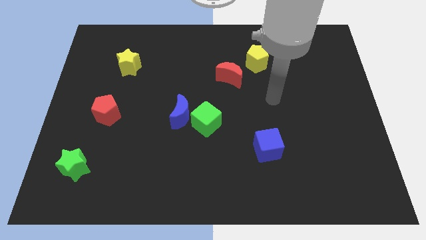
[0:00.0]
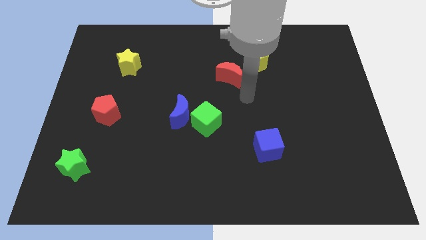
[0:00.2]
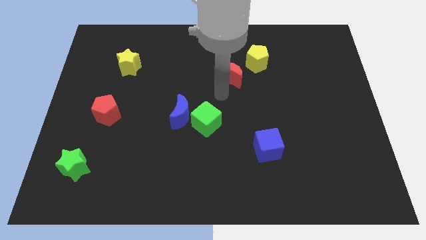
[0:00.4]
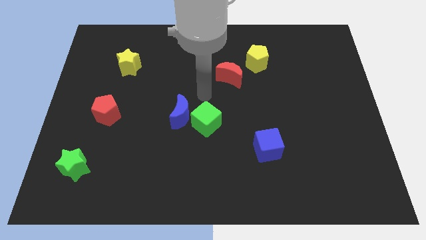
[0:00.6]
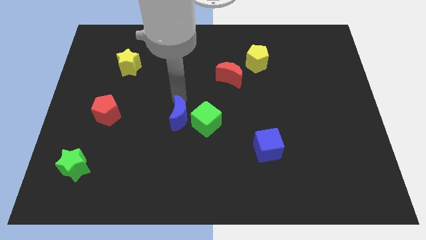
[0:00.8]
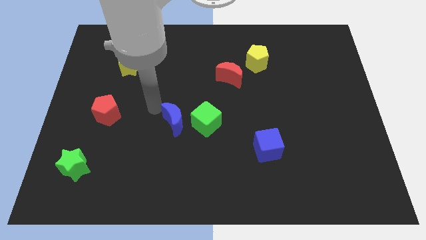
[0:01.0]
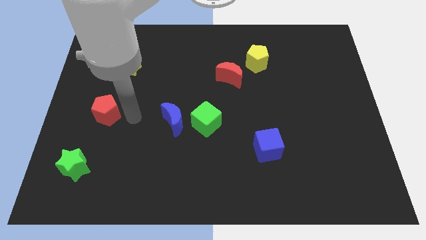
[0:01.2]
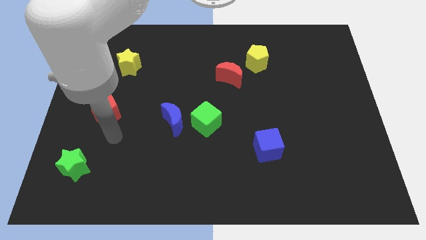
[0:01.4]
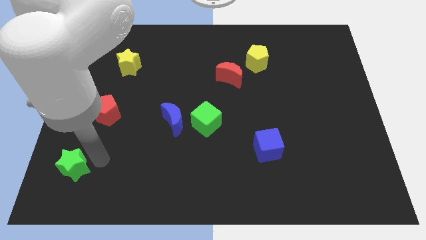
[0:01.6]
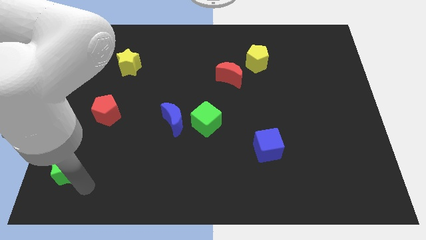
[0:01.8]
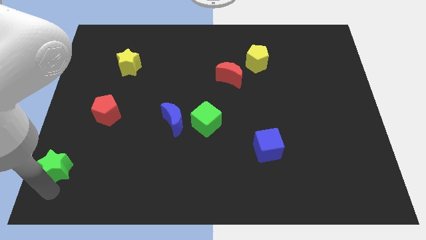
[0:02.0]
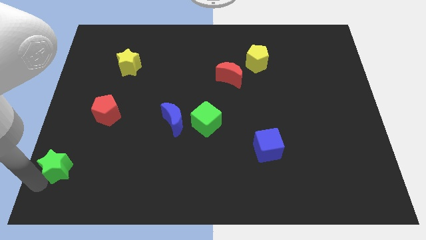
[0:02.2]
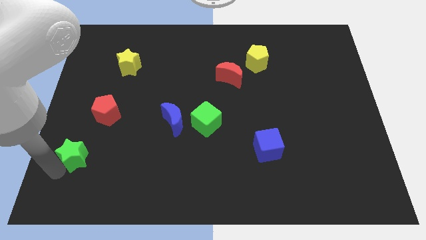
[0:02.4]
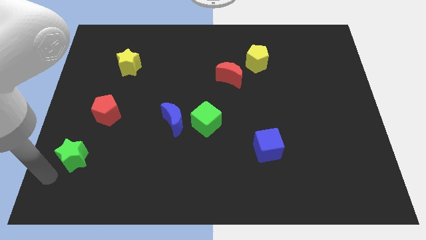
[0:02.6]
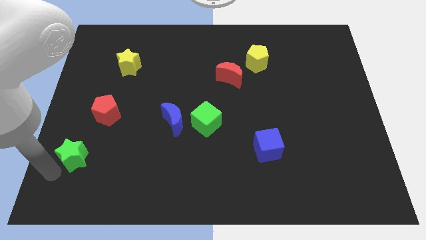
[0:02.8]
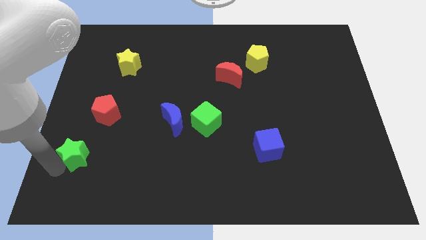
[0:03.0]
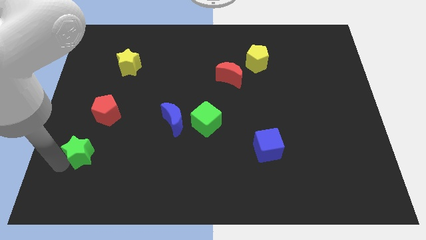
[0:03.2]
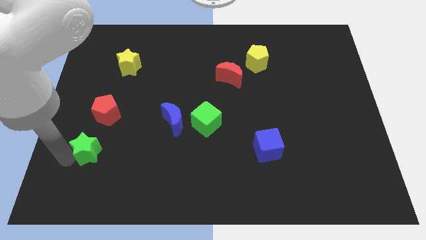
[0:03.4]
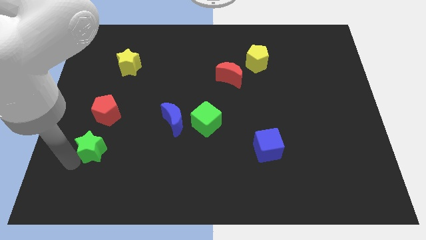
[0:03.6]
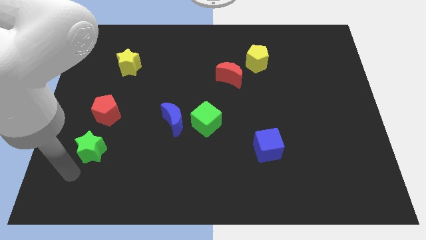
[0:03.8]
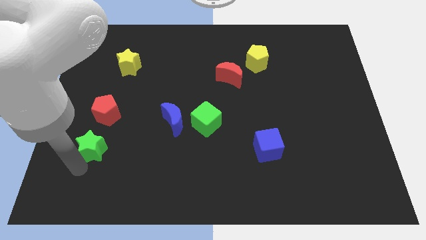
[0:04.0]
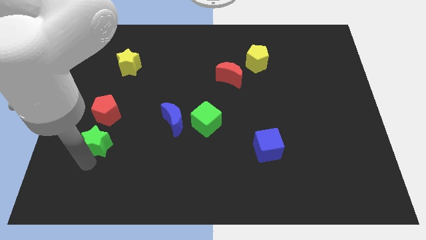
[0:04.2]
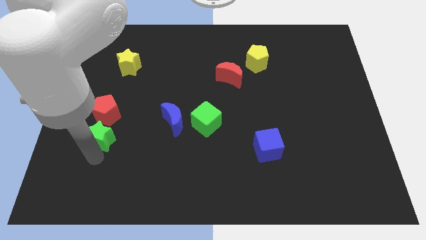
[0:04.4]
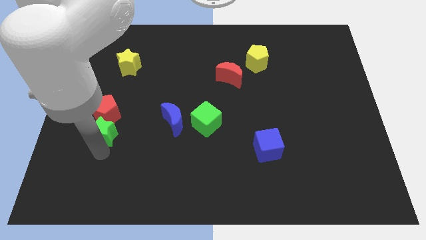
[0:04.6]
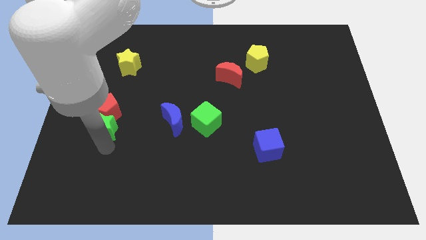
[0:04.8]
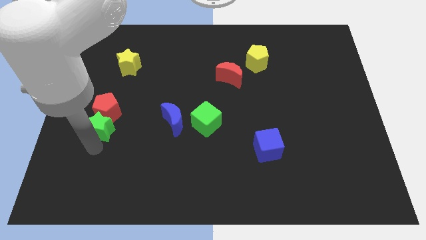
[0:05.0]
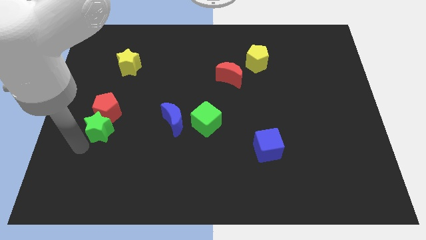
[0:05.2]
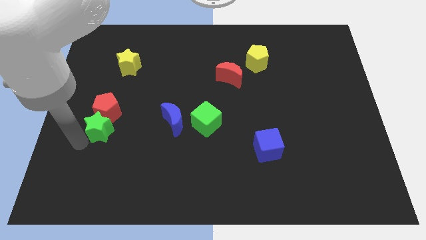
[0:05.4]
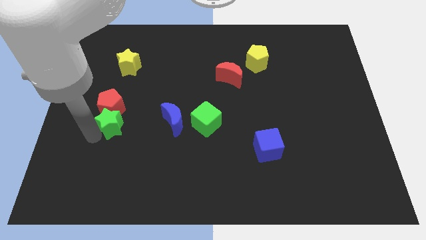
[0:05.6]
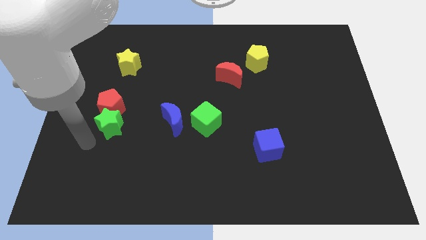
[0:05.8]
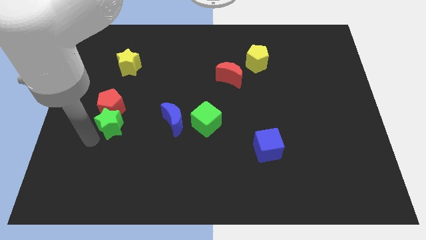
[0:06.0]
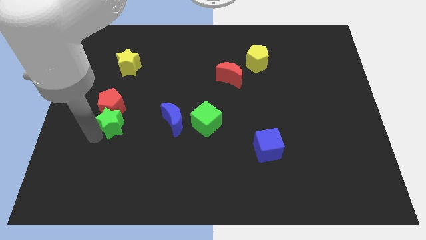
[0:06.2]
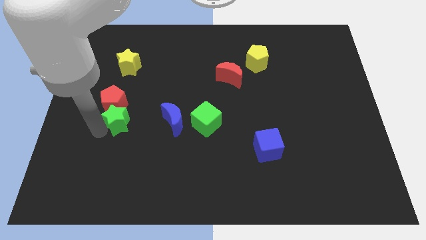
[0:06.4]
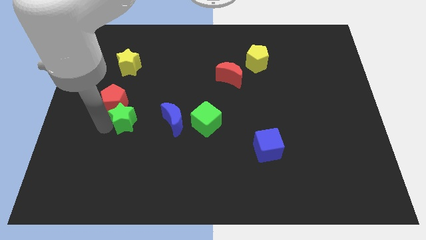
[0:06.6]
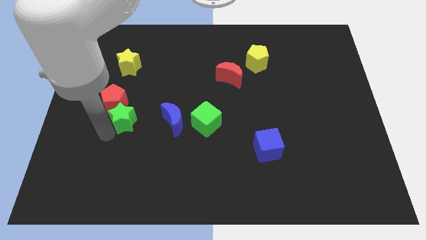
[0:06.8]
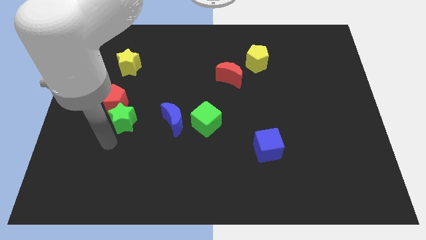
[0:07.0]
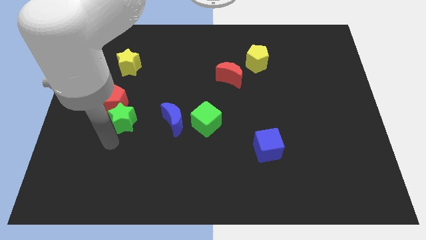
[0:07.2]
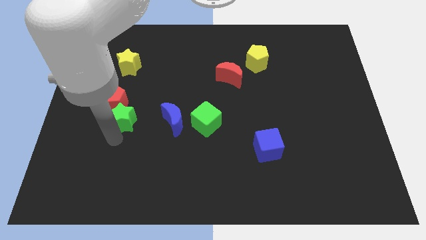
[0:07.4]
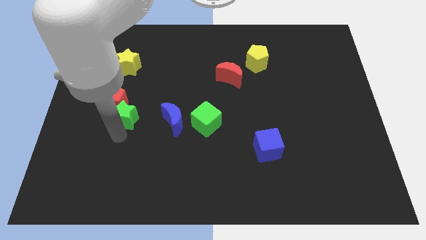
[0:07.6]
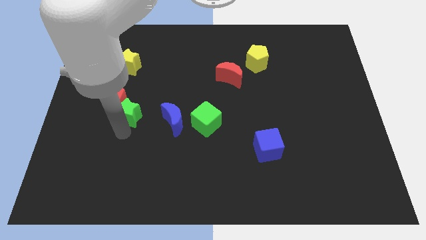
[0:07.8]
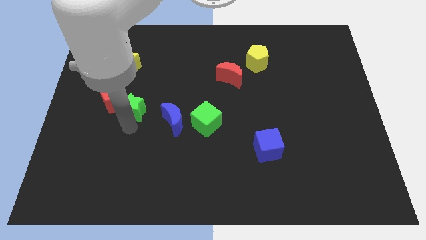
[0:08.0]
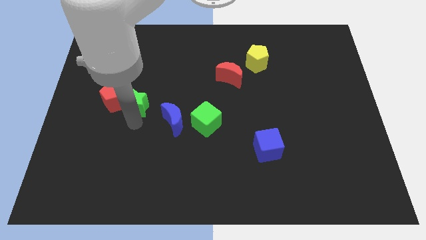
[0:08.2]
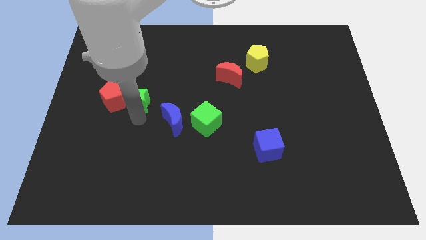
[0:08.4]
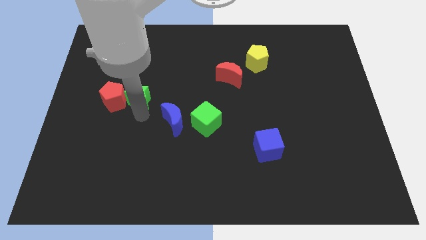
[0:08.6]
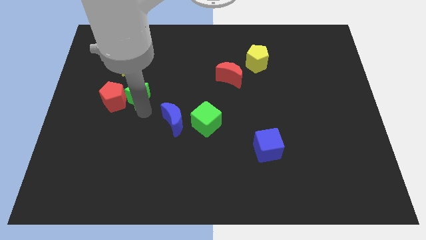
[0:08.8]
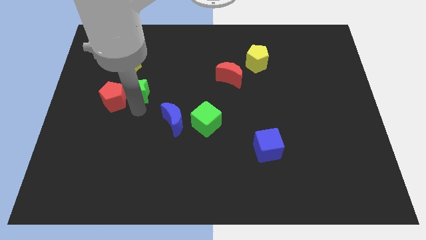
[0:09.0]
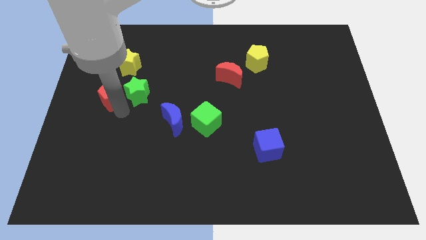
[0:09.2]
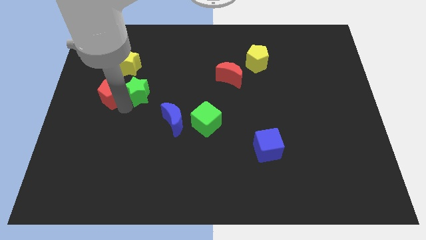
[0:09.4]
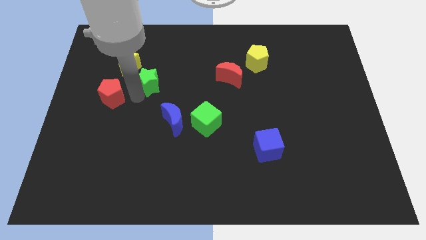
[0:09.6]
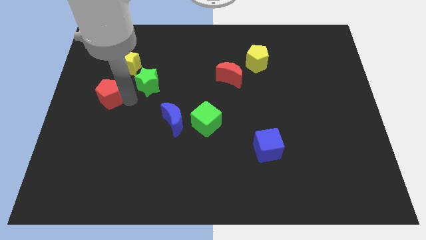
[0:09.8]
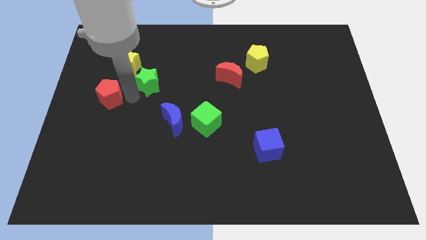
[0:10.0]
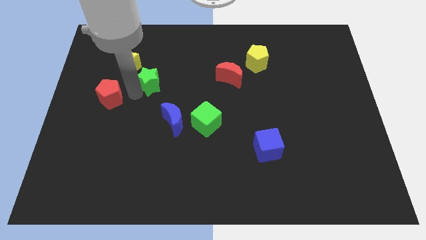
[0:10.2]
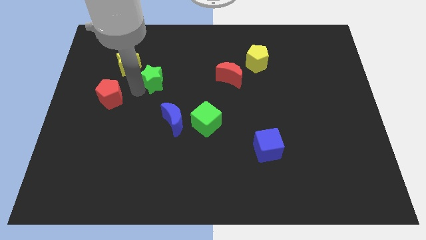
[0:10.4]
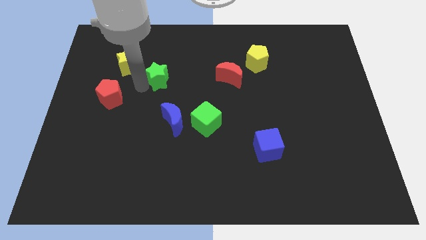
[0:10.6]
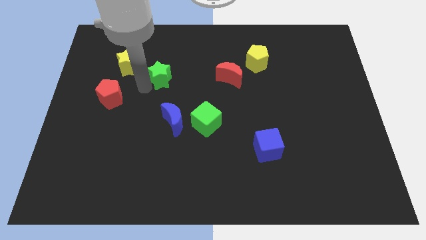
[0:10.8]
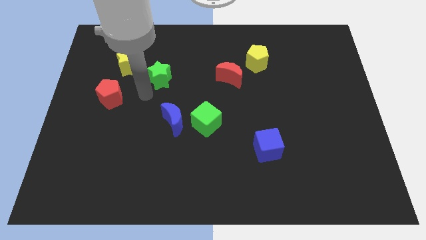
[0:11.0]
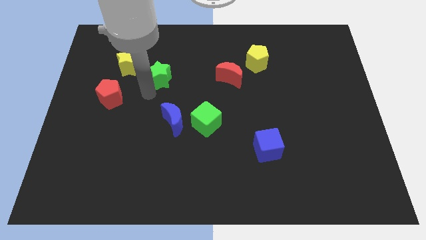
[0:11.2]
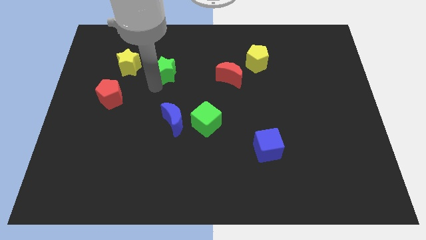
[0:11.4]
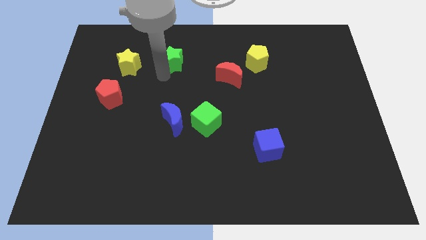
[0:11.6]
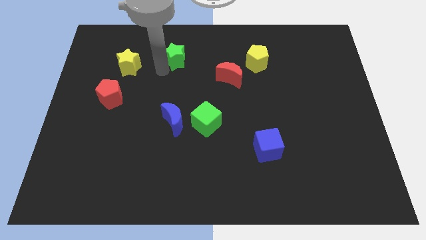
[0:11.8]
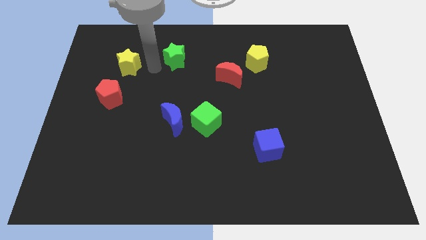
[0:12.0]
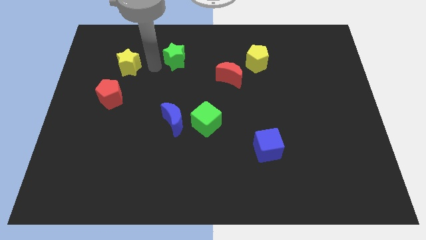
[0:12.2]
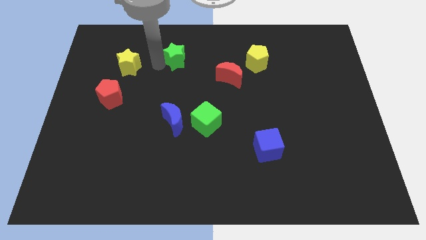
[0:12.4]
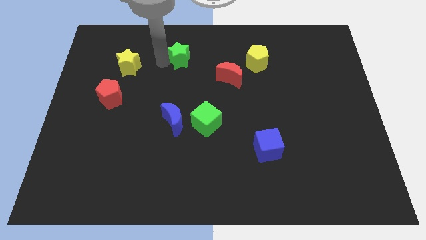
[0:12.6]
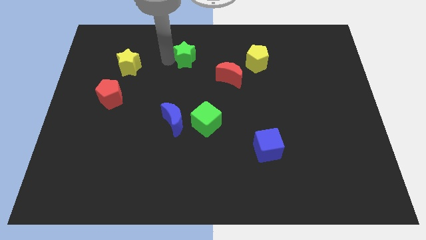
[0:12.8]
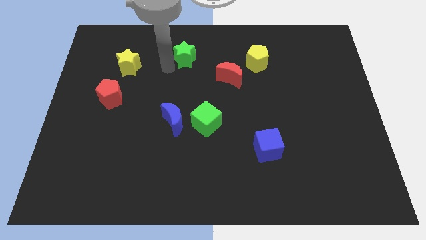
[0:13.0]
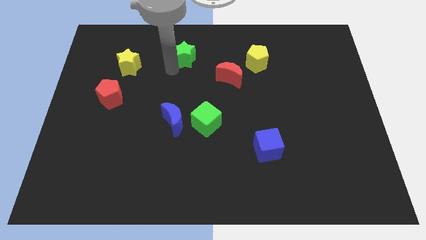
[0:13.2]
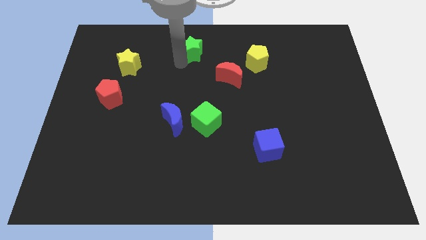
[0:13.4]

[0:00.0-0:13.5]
push the green star to the top
